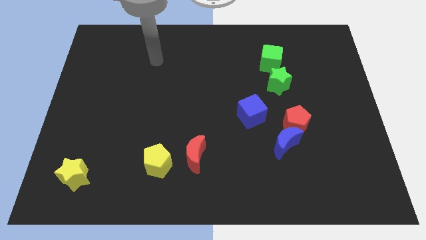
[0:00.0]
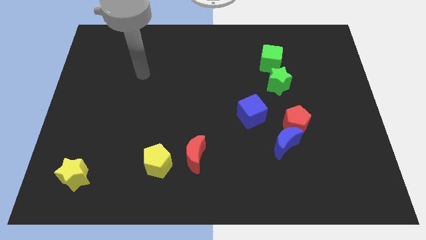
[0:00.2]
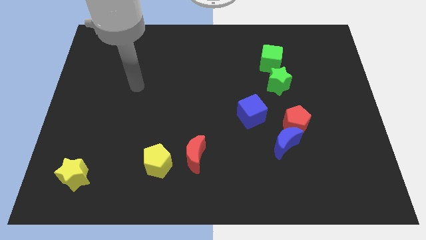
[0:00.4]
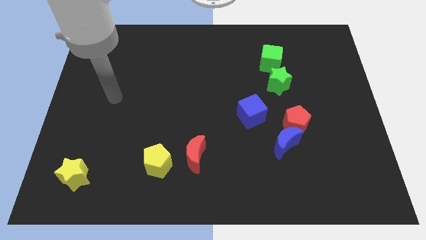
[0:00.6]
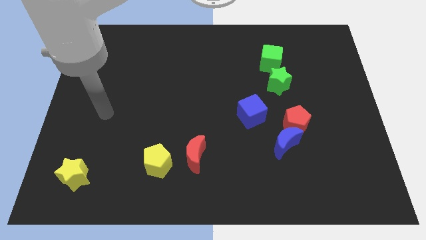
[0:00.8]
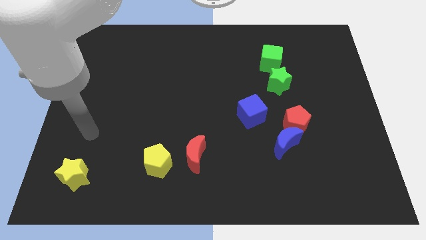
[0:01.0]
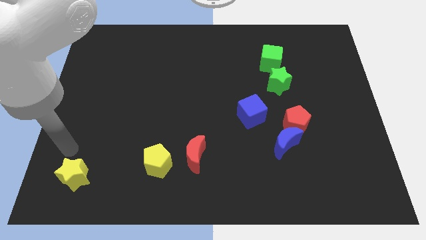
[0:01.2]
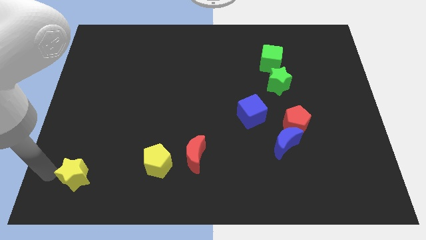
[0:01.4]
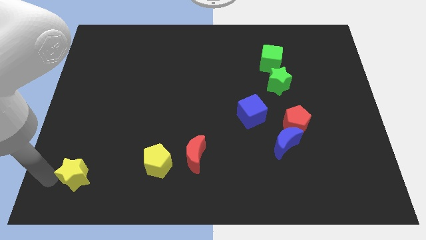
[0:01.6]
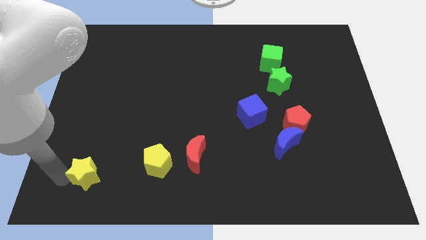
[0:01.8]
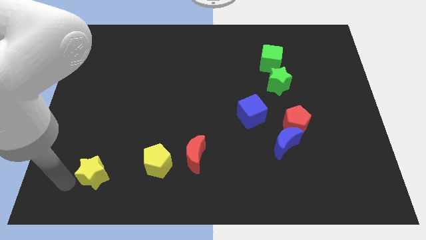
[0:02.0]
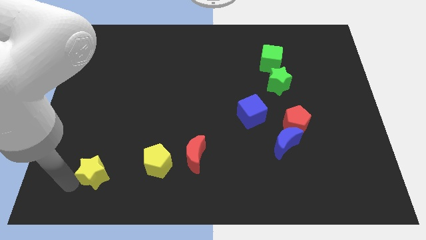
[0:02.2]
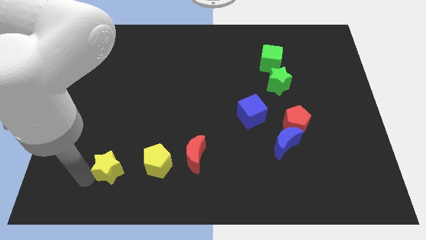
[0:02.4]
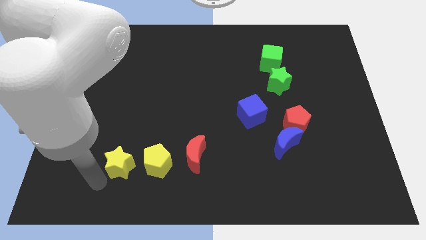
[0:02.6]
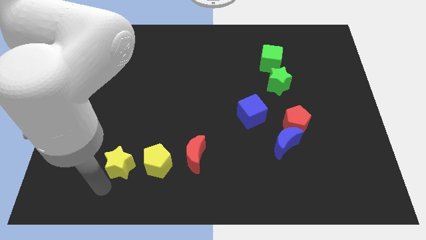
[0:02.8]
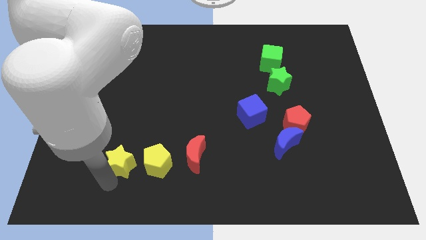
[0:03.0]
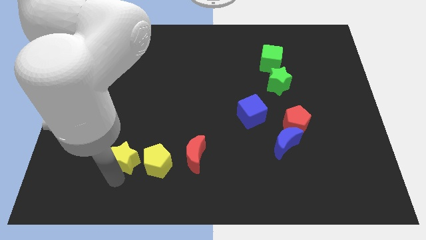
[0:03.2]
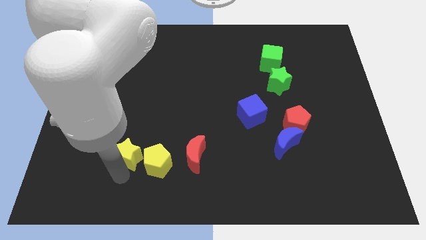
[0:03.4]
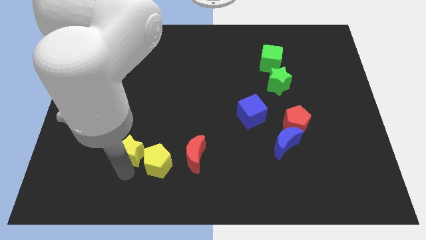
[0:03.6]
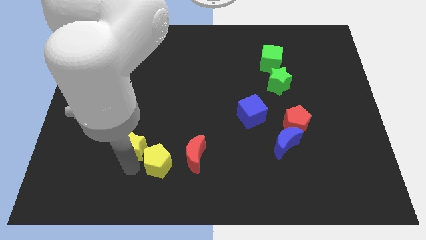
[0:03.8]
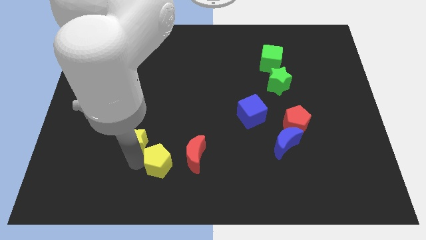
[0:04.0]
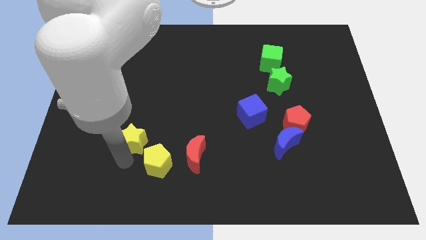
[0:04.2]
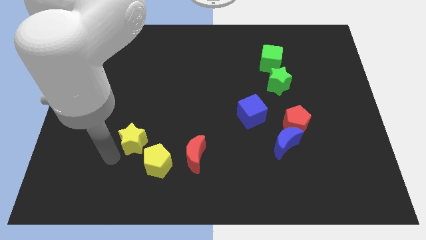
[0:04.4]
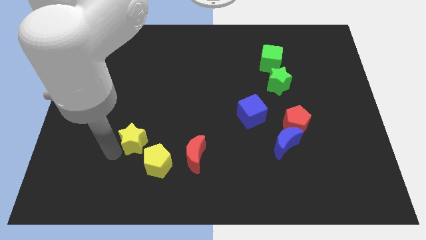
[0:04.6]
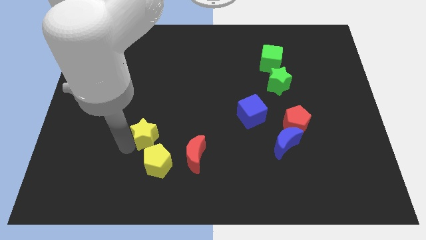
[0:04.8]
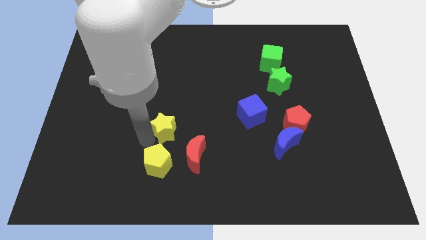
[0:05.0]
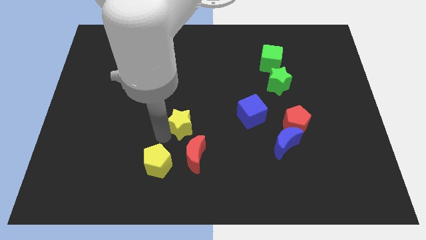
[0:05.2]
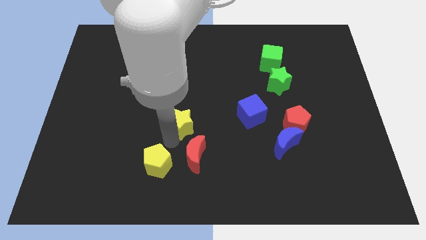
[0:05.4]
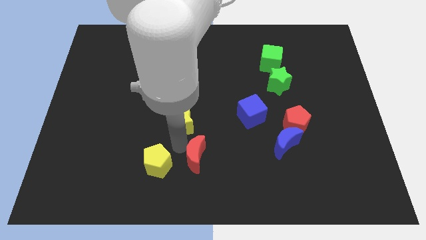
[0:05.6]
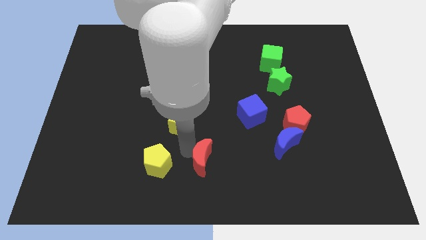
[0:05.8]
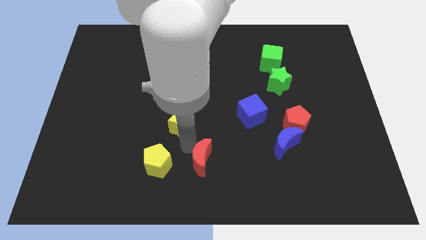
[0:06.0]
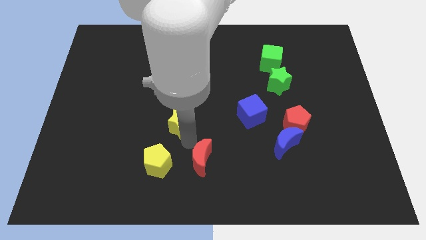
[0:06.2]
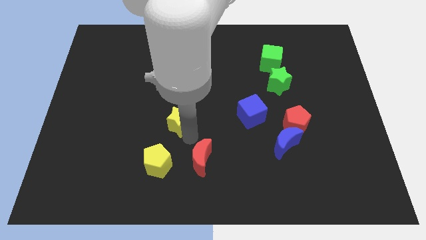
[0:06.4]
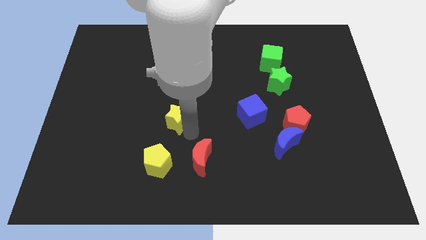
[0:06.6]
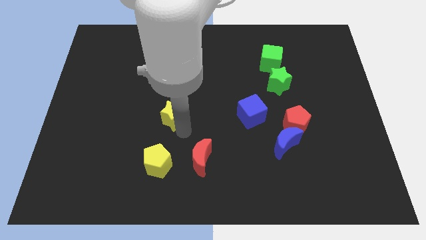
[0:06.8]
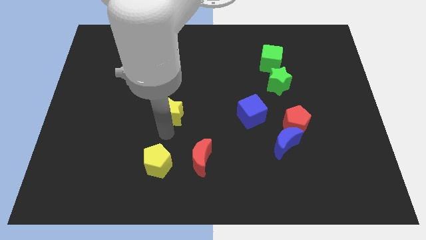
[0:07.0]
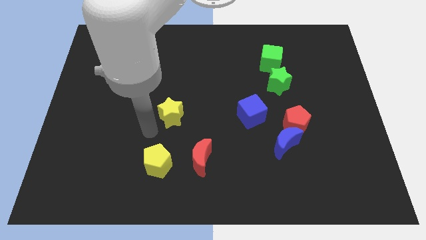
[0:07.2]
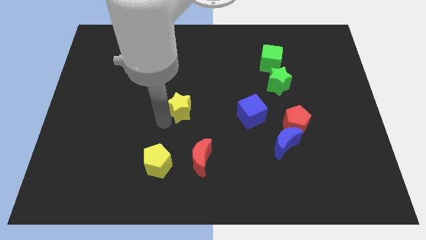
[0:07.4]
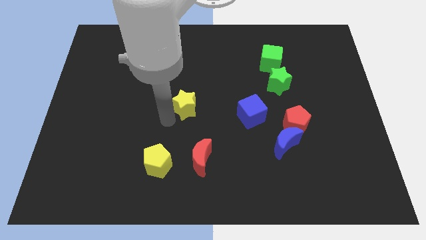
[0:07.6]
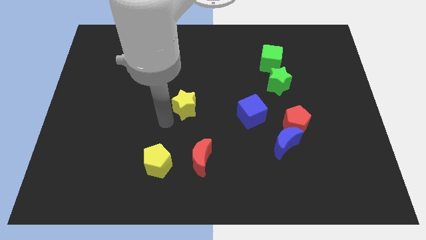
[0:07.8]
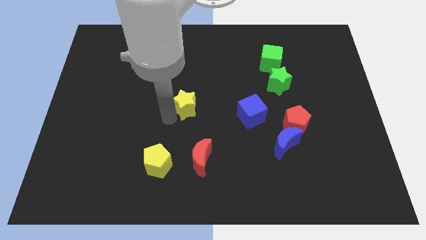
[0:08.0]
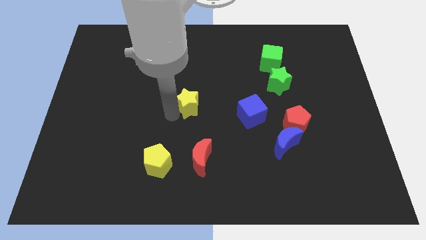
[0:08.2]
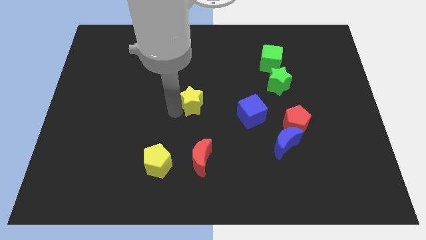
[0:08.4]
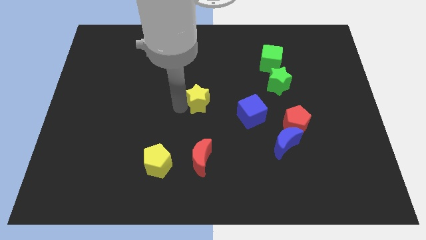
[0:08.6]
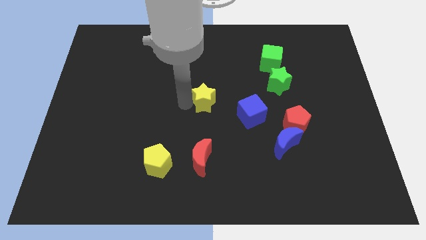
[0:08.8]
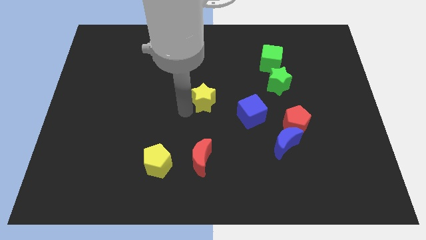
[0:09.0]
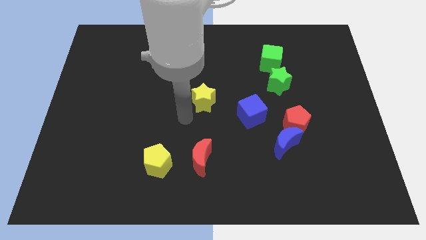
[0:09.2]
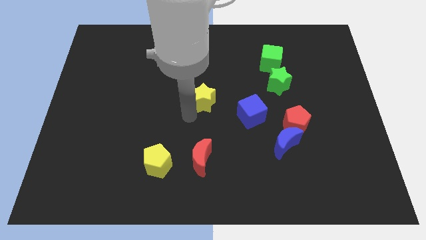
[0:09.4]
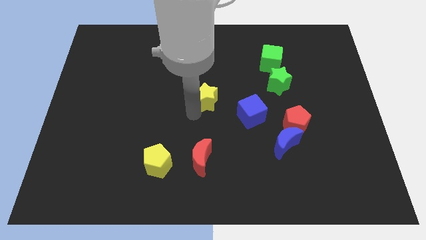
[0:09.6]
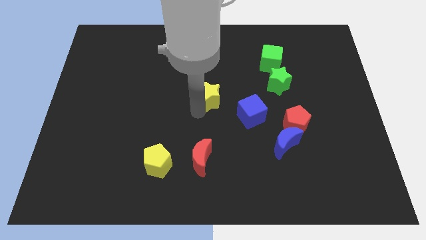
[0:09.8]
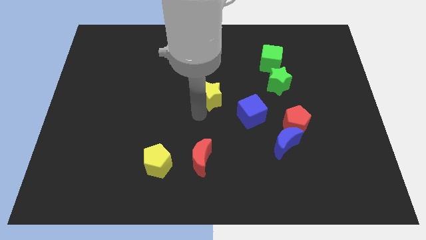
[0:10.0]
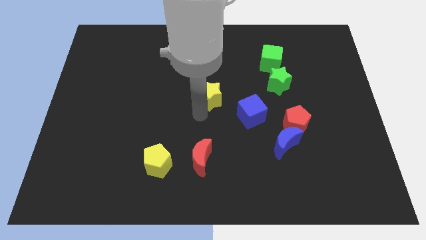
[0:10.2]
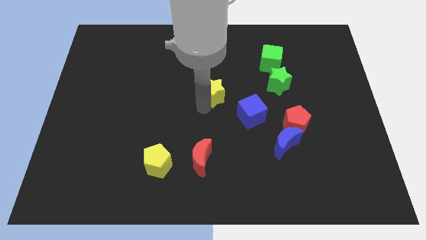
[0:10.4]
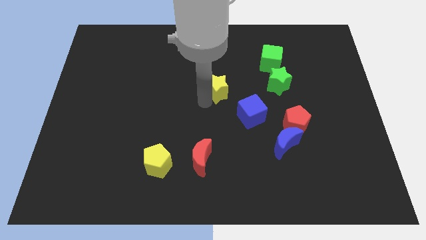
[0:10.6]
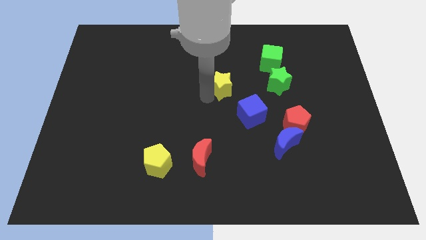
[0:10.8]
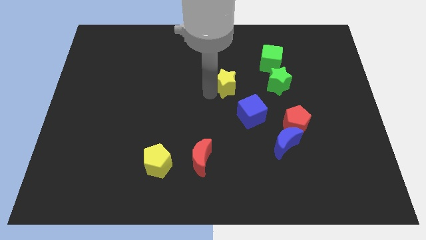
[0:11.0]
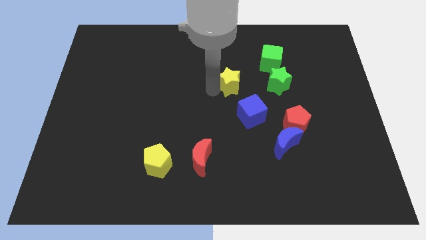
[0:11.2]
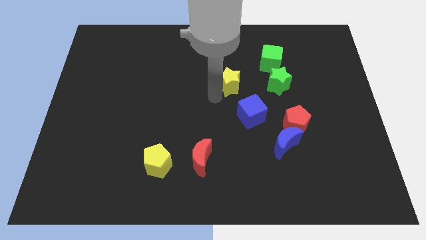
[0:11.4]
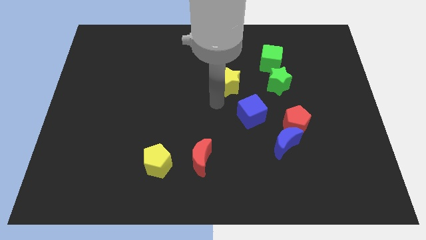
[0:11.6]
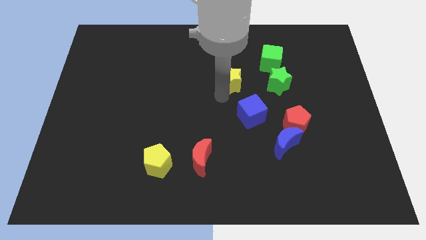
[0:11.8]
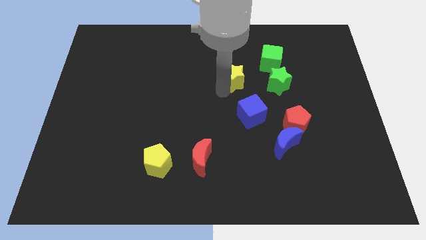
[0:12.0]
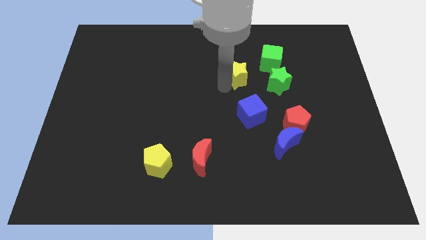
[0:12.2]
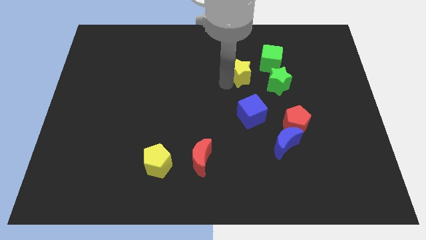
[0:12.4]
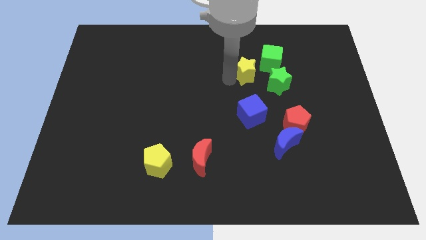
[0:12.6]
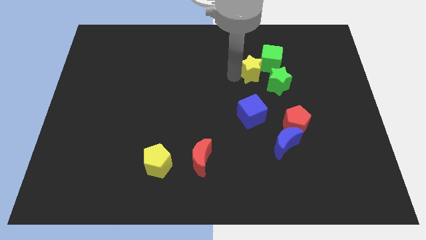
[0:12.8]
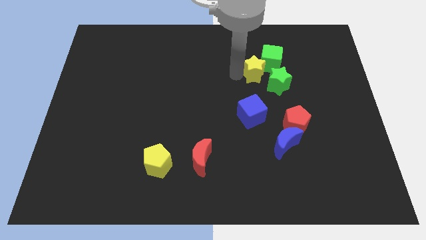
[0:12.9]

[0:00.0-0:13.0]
move the yellow star to the green cube
